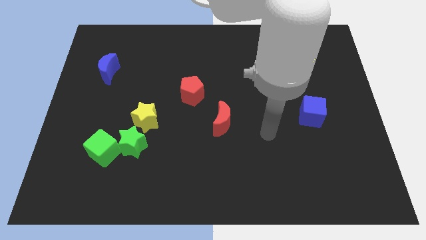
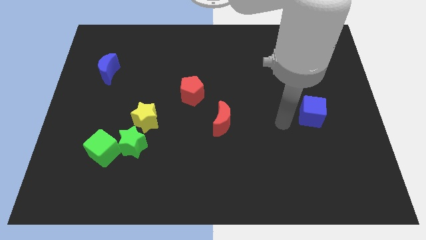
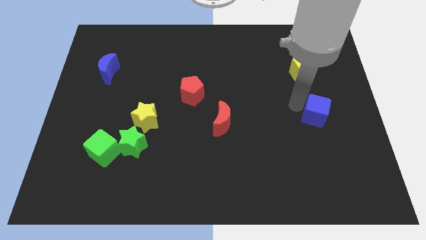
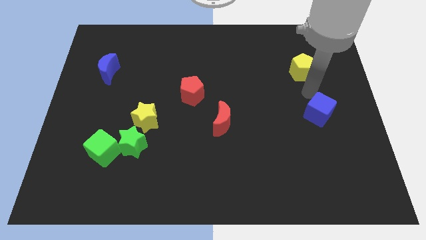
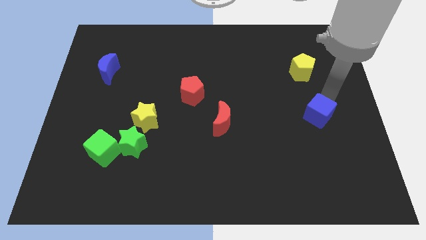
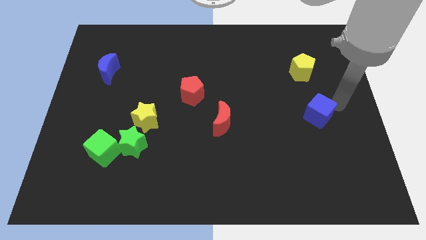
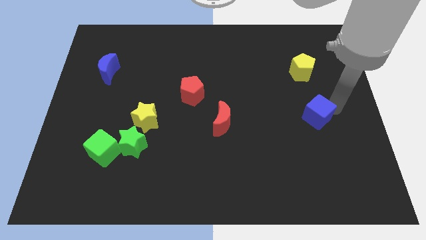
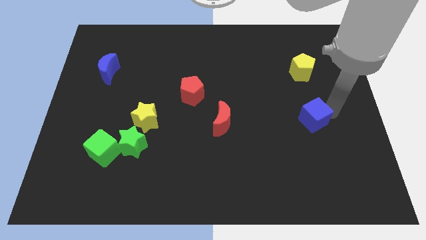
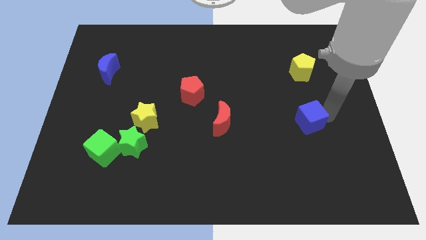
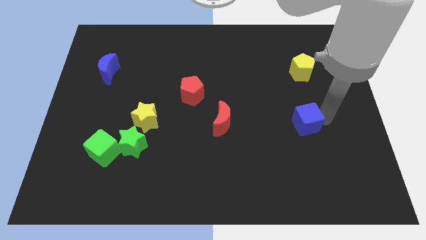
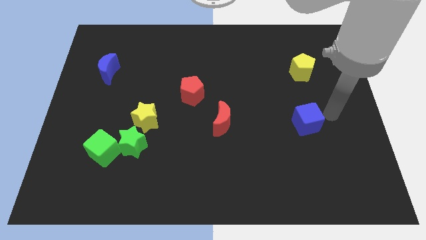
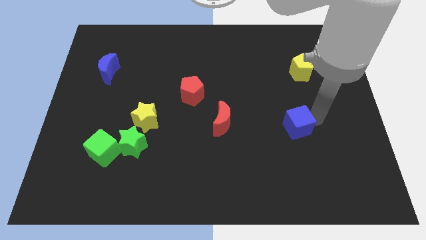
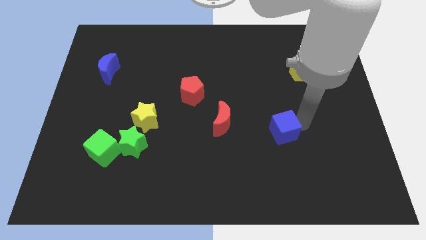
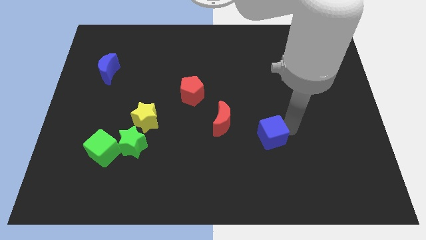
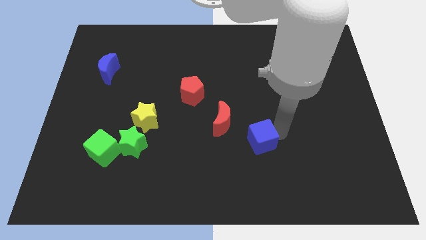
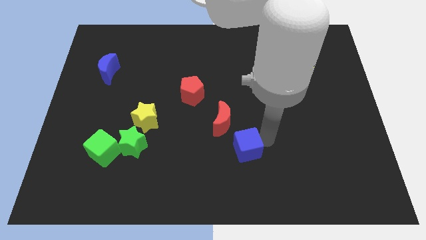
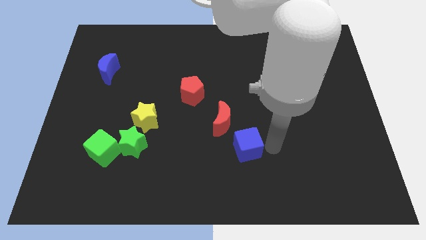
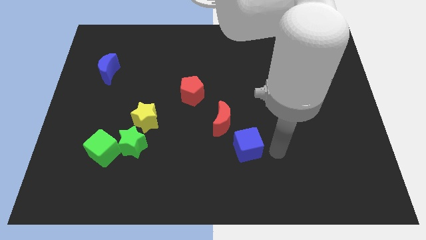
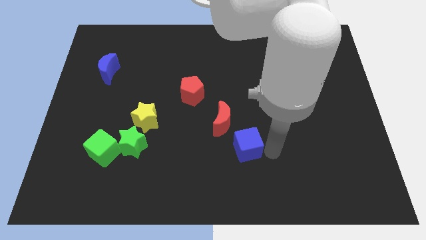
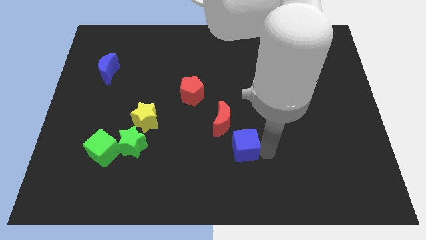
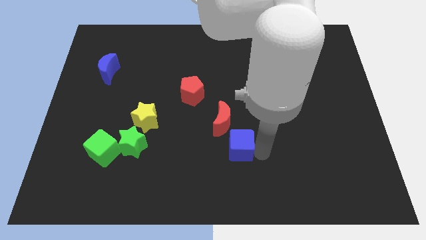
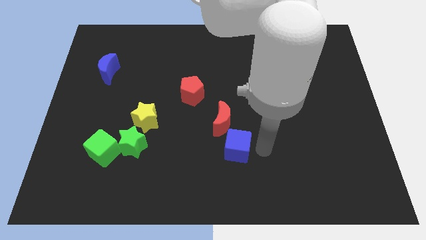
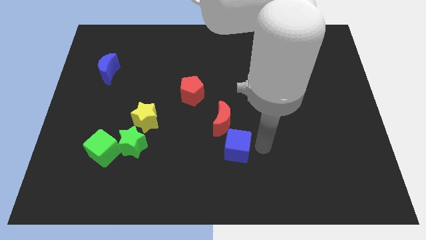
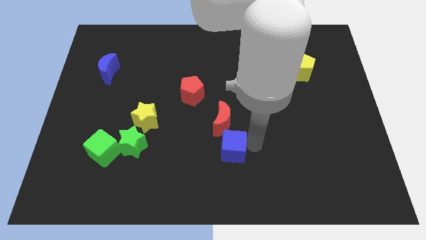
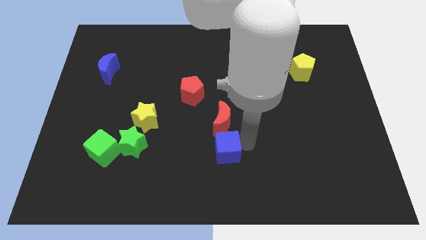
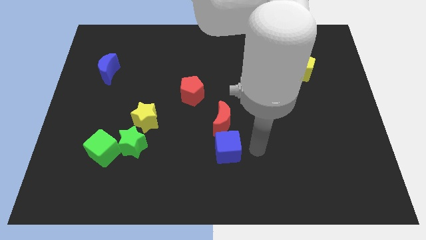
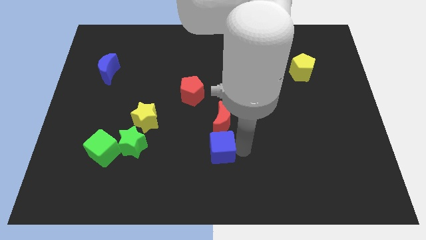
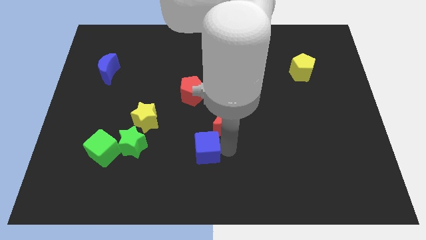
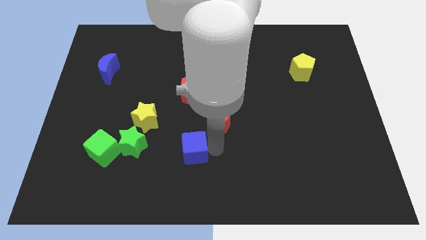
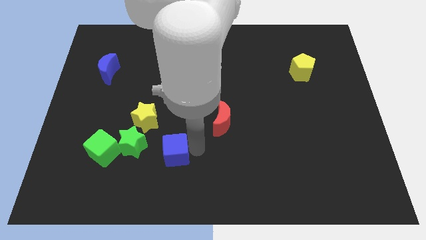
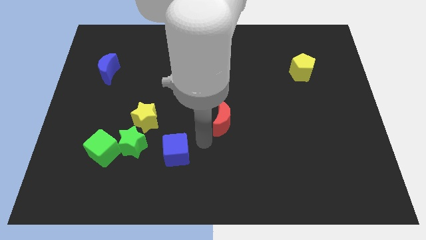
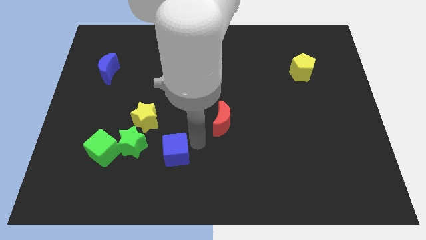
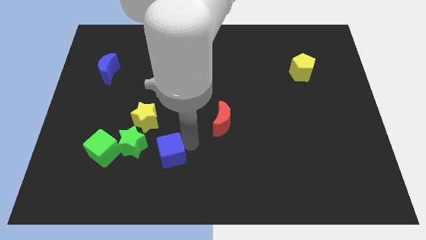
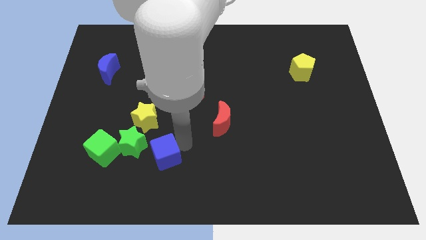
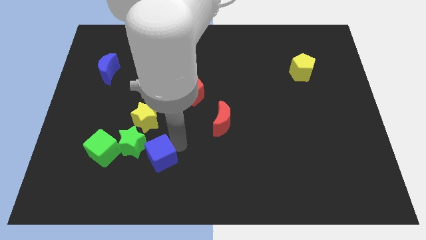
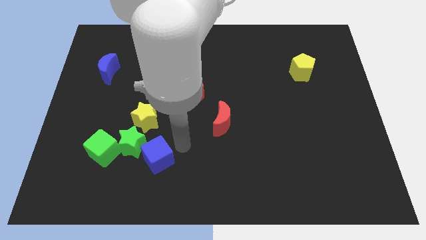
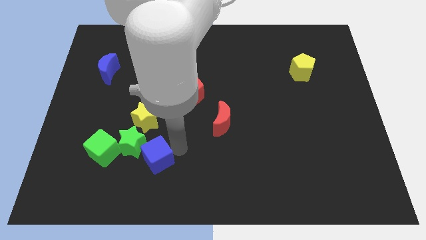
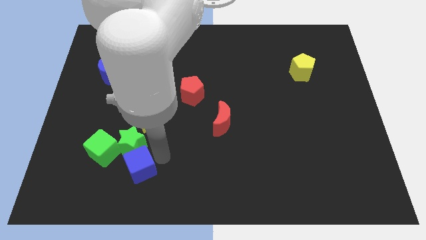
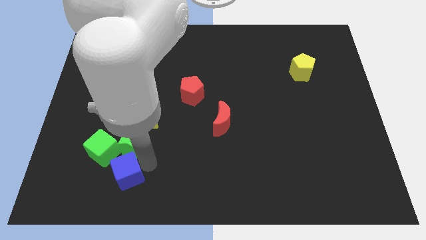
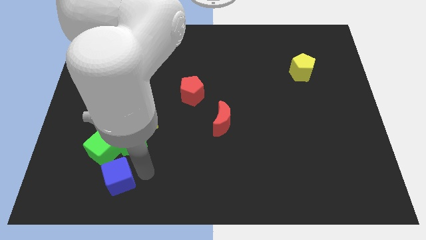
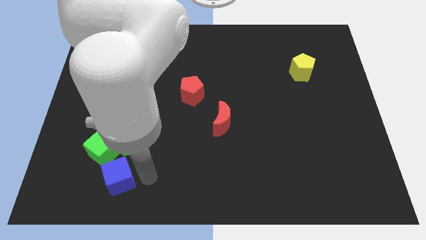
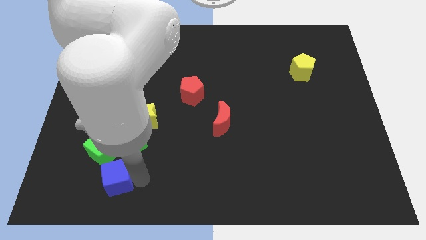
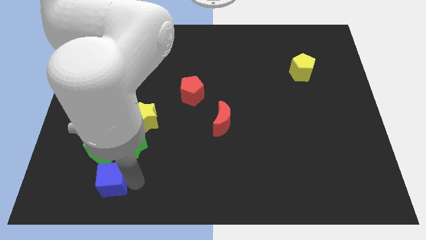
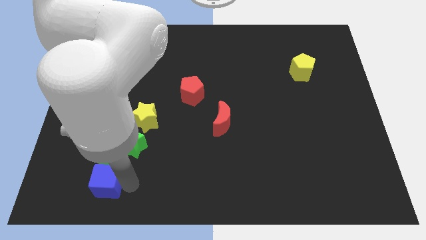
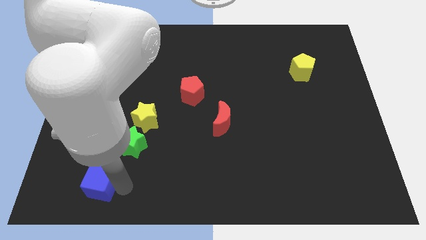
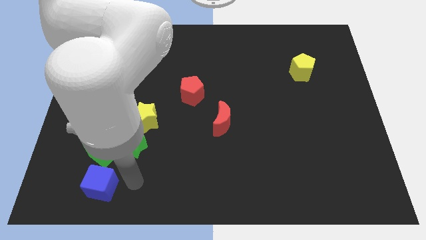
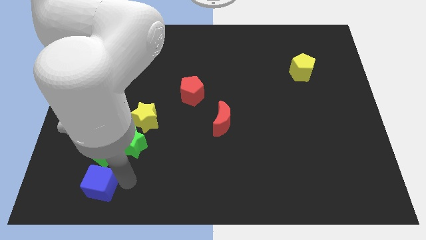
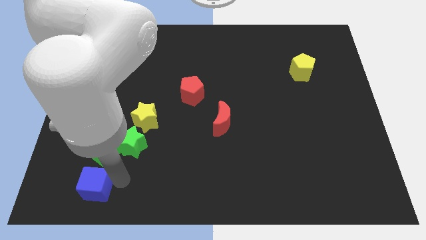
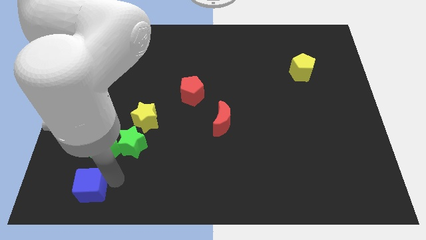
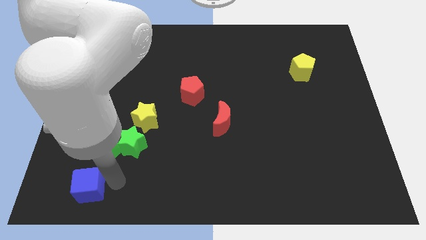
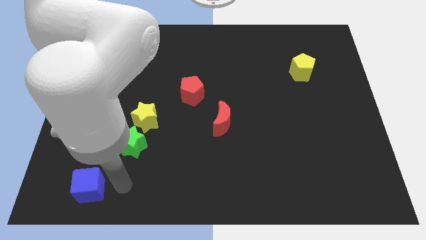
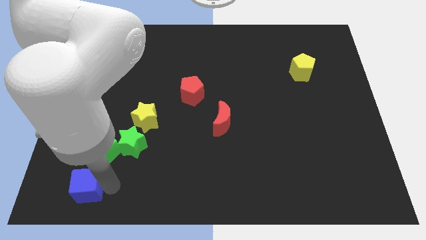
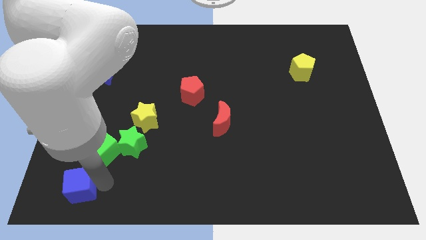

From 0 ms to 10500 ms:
put the blue cube to the lower left corner

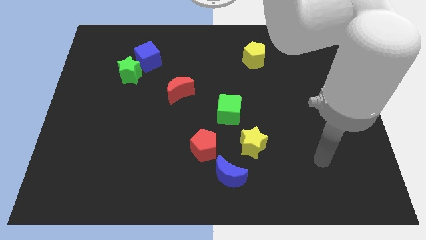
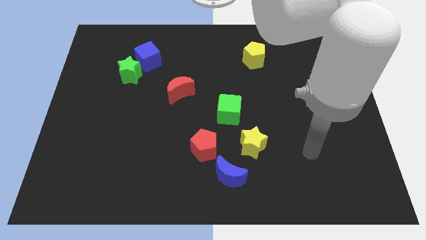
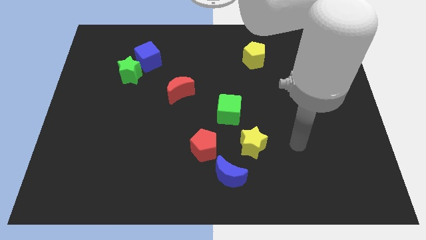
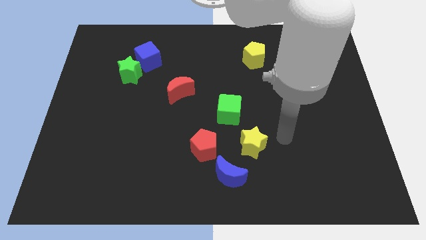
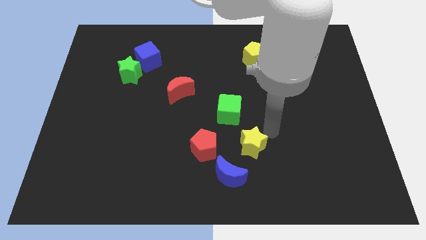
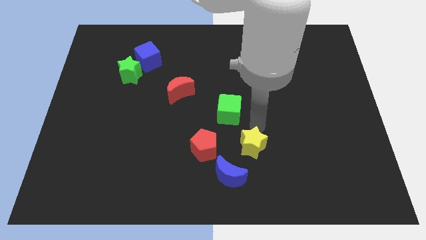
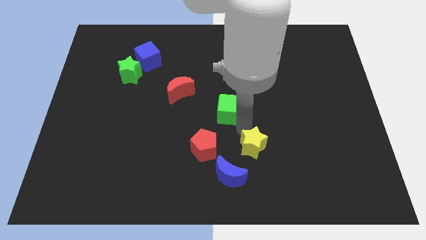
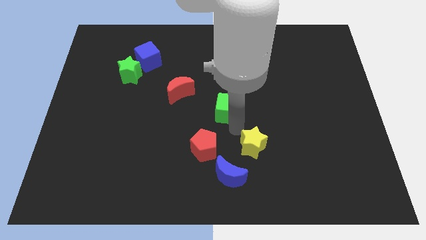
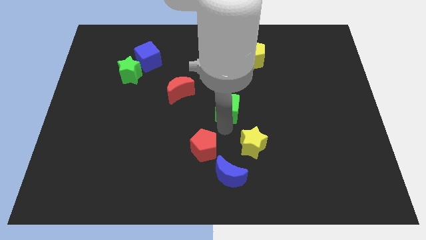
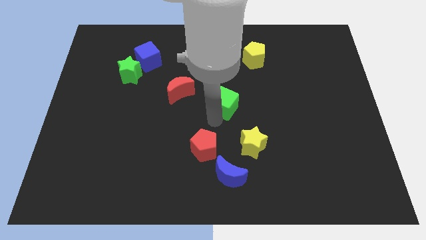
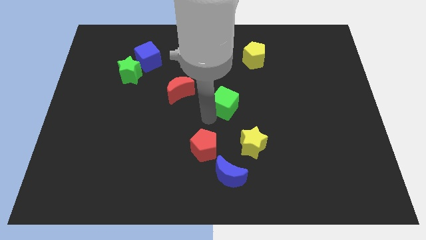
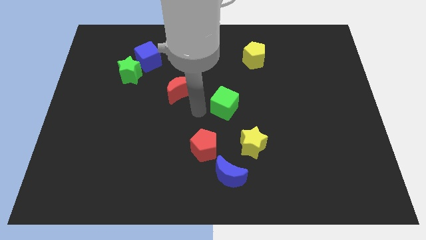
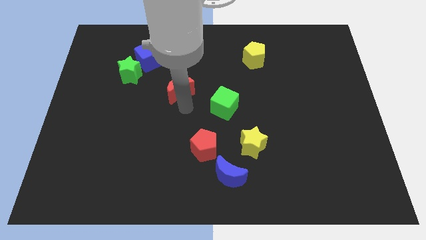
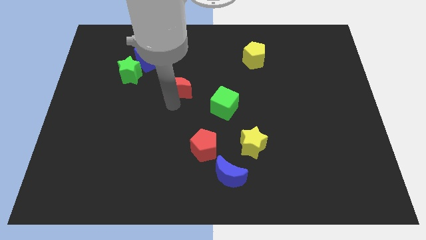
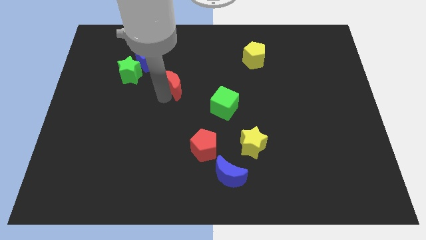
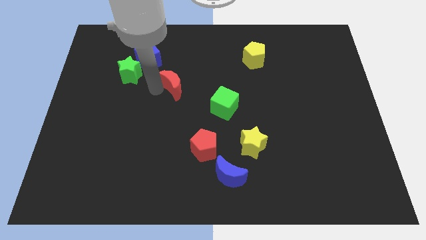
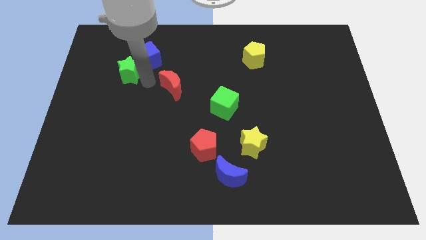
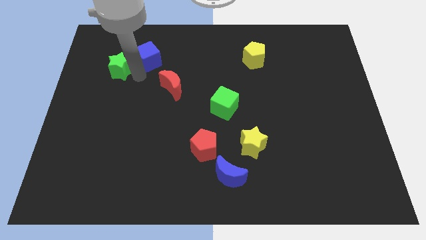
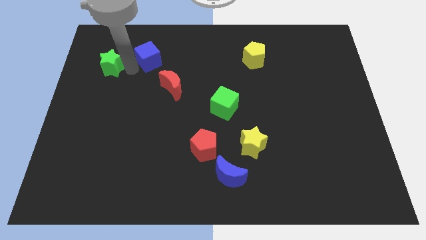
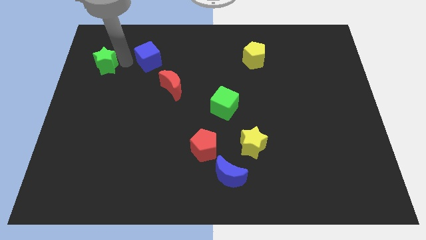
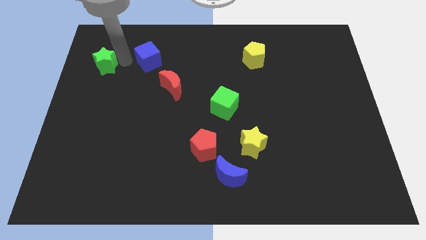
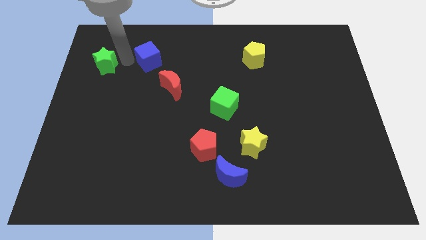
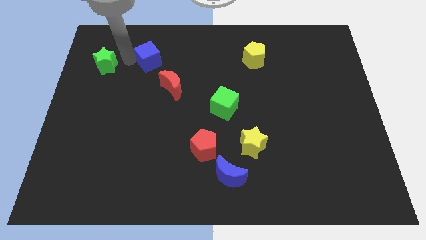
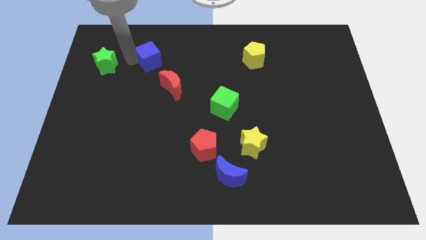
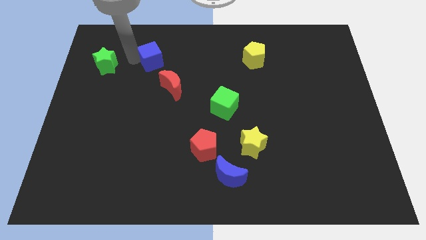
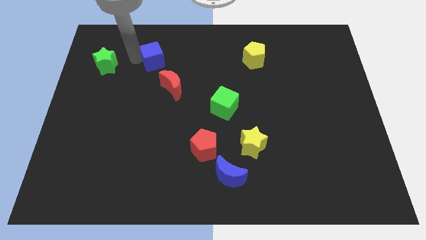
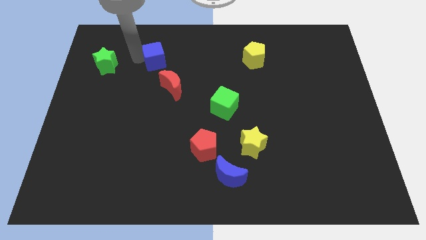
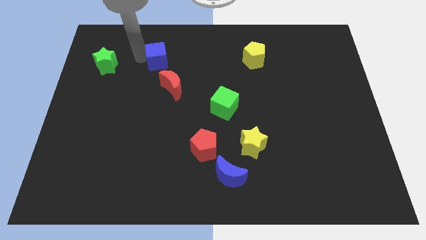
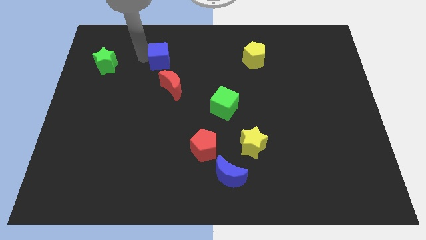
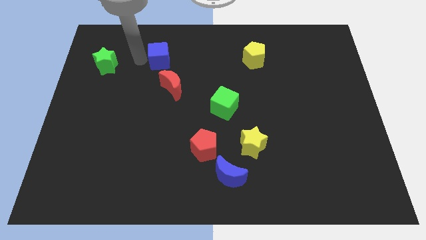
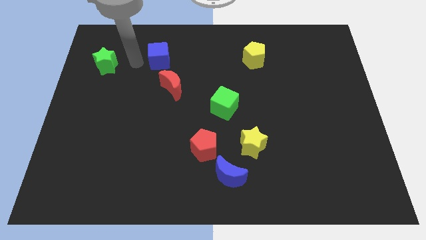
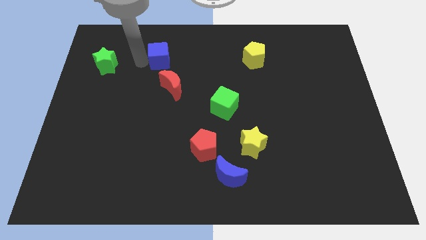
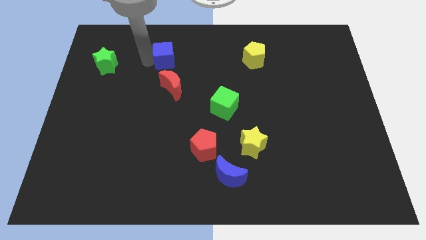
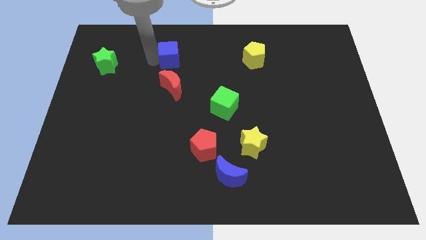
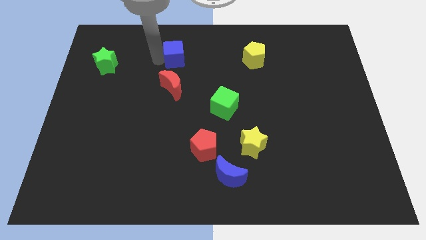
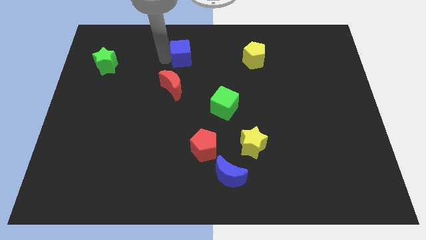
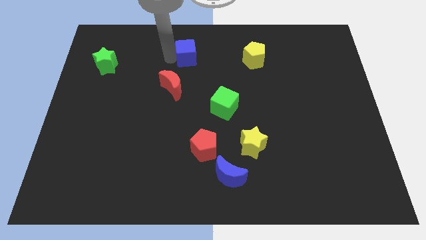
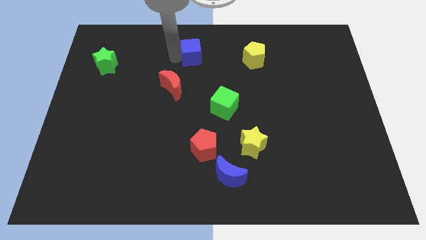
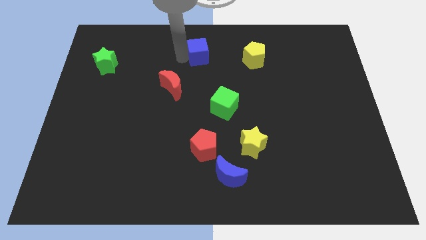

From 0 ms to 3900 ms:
put the blue cube to the top side
